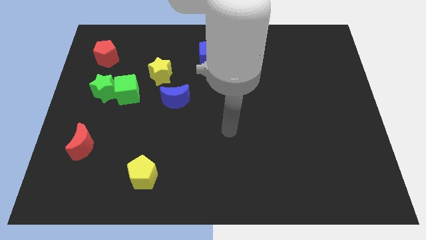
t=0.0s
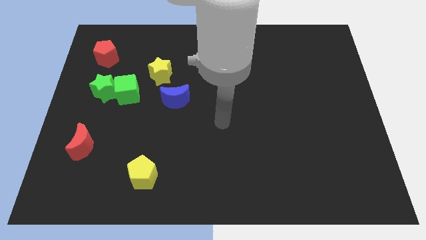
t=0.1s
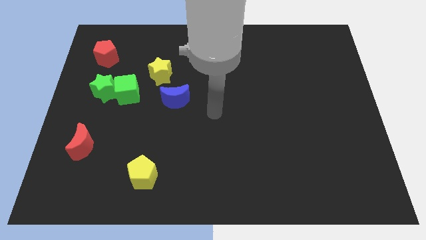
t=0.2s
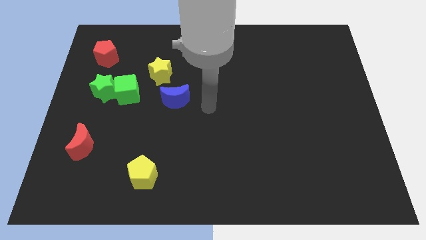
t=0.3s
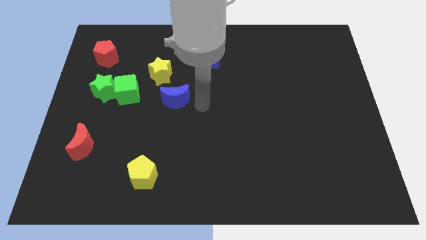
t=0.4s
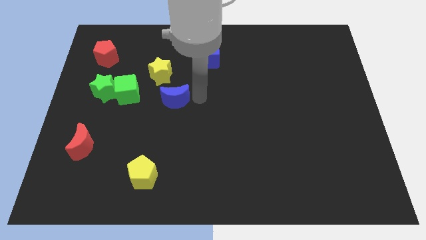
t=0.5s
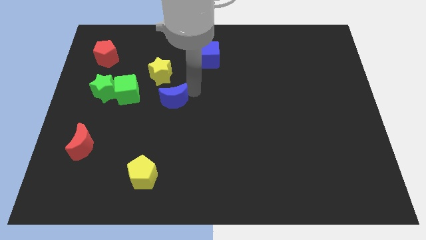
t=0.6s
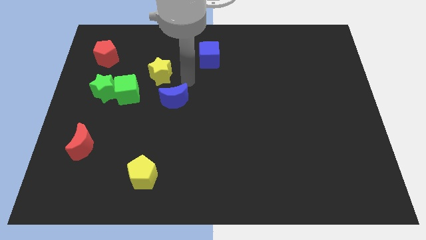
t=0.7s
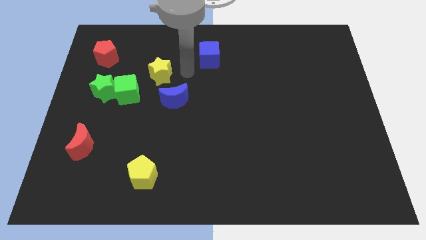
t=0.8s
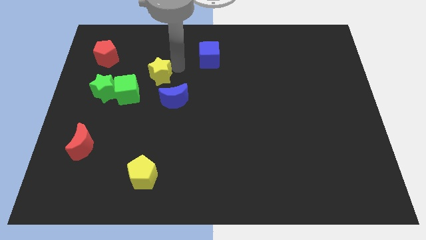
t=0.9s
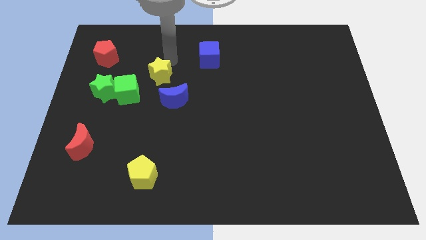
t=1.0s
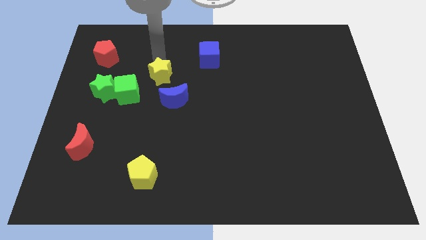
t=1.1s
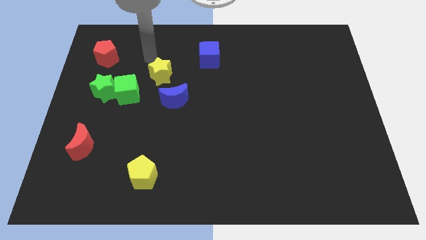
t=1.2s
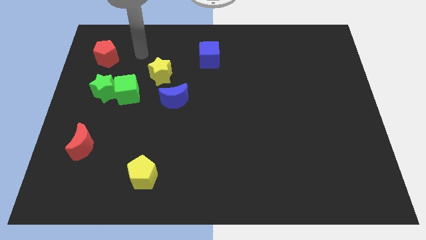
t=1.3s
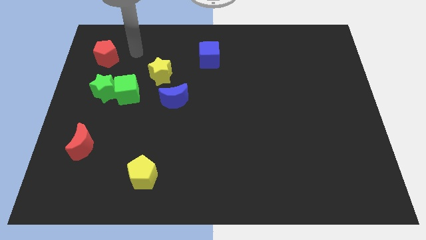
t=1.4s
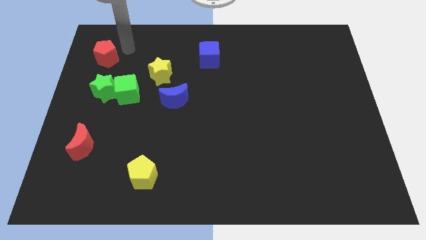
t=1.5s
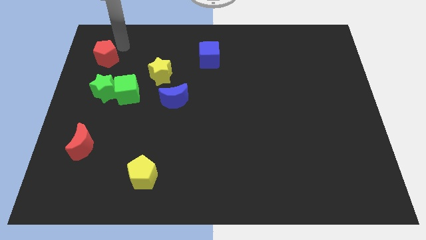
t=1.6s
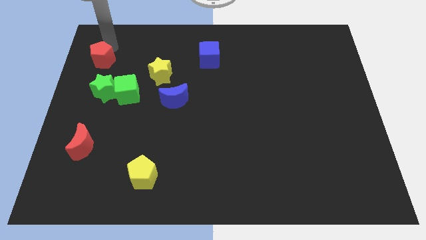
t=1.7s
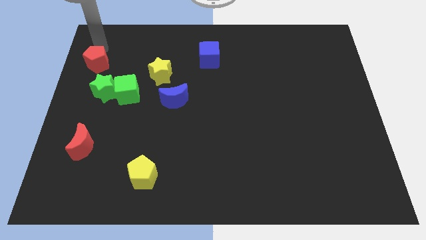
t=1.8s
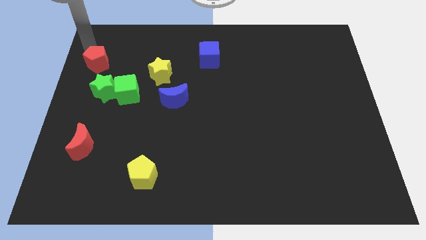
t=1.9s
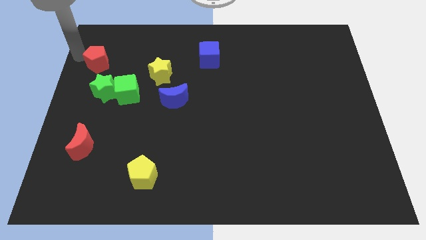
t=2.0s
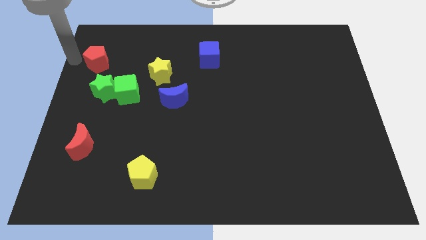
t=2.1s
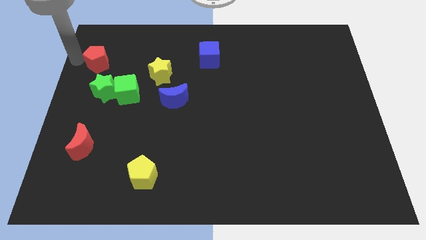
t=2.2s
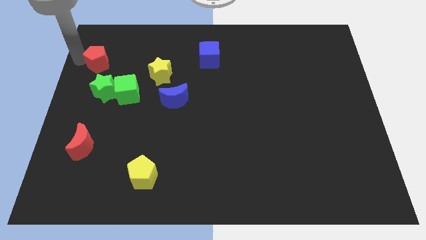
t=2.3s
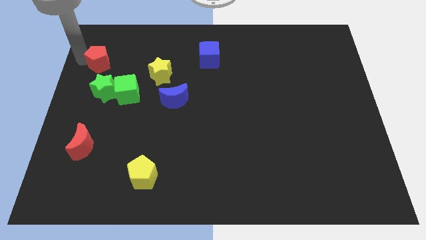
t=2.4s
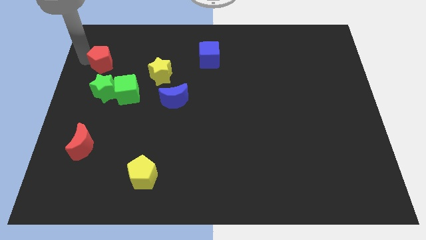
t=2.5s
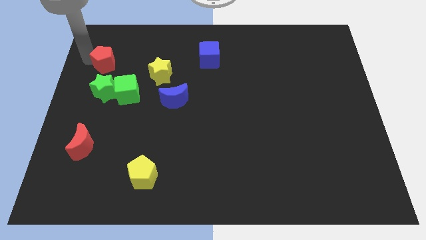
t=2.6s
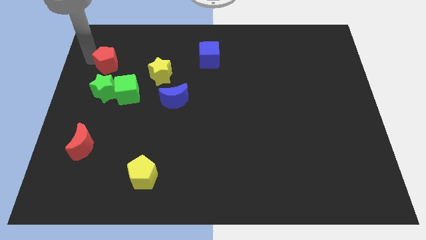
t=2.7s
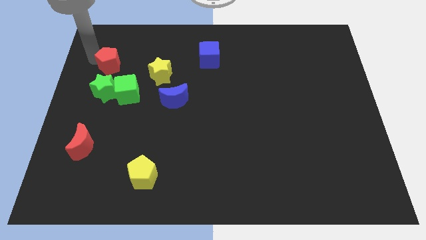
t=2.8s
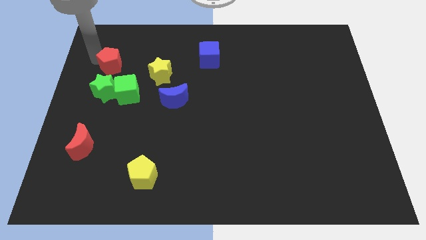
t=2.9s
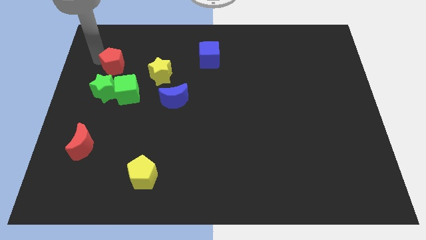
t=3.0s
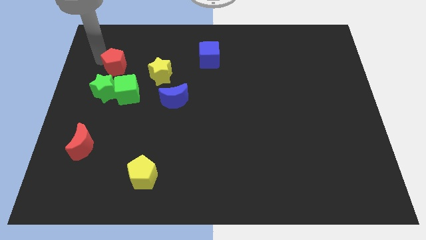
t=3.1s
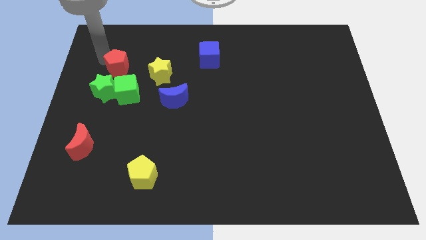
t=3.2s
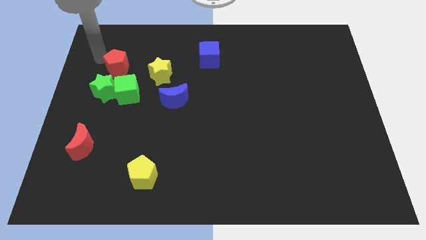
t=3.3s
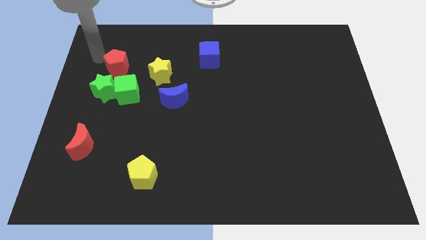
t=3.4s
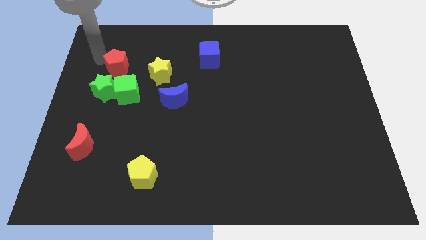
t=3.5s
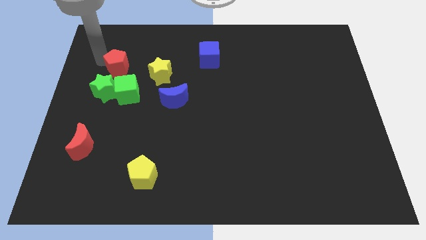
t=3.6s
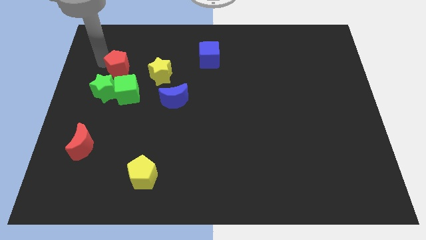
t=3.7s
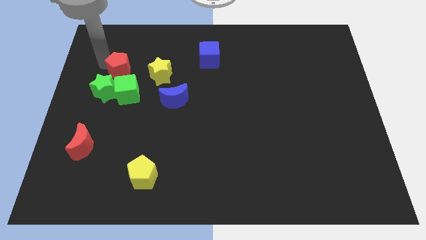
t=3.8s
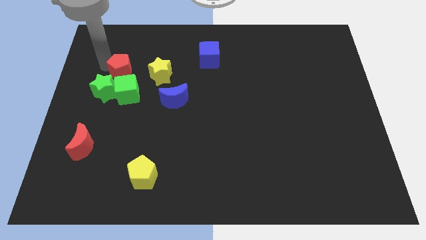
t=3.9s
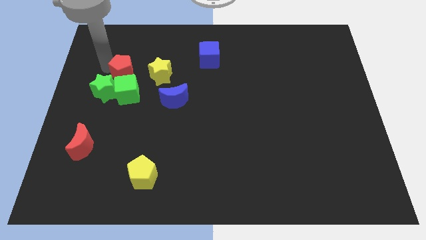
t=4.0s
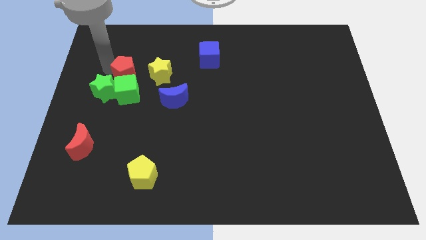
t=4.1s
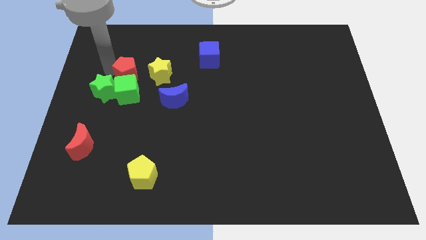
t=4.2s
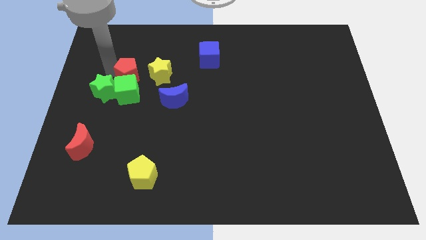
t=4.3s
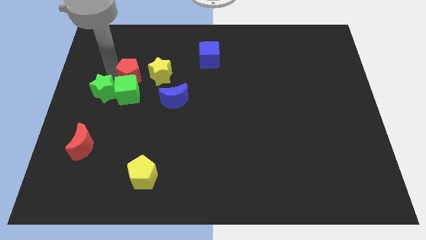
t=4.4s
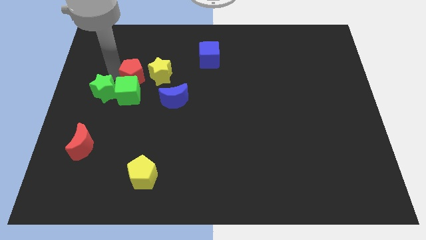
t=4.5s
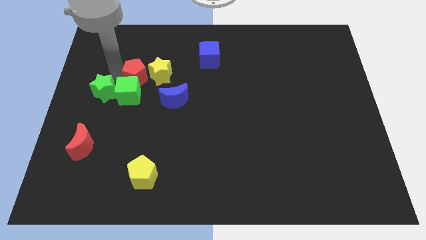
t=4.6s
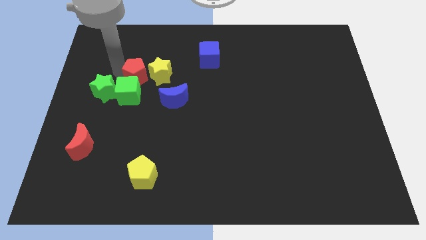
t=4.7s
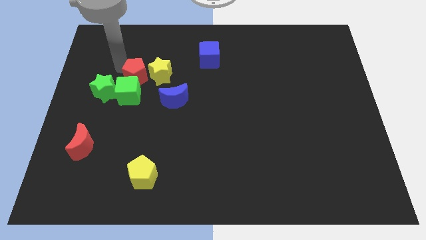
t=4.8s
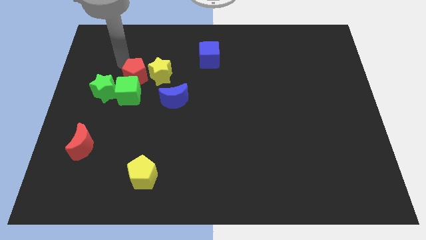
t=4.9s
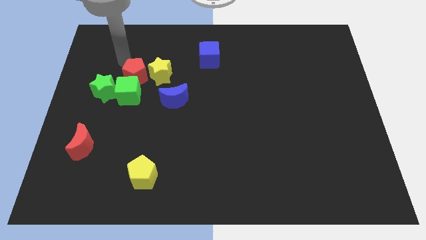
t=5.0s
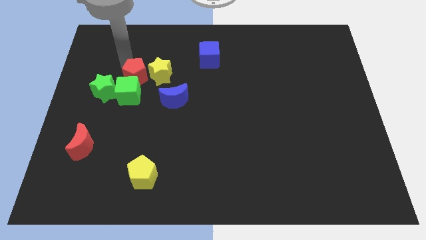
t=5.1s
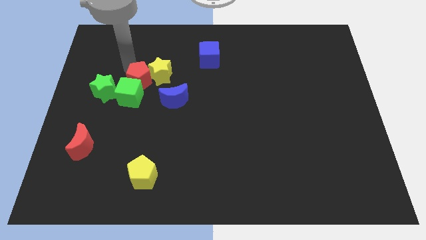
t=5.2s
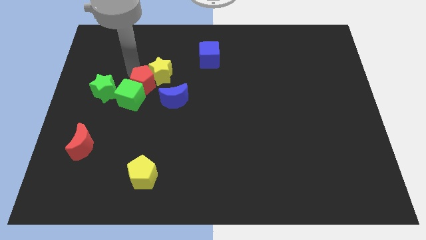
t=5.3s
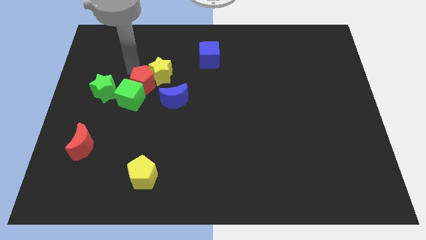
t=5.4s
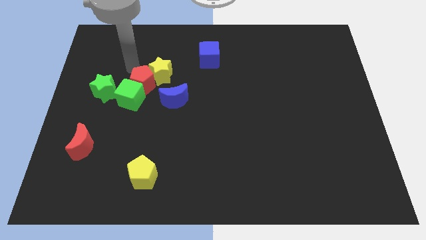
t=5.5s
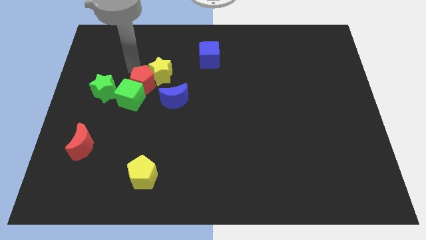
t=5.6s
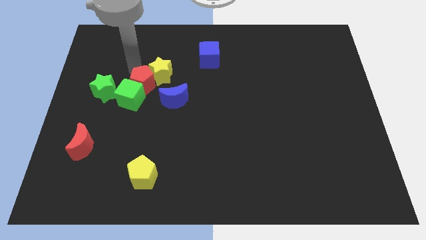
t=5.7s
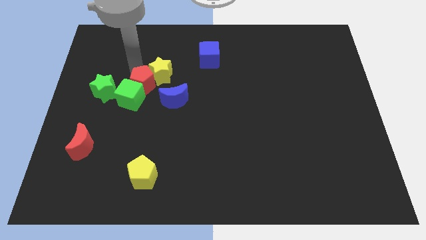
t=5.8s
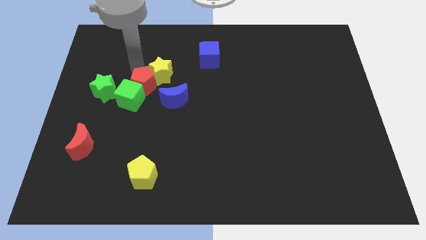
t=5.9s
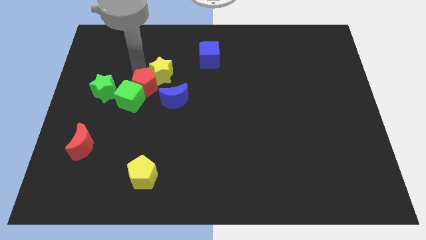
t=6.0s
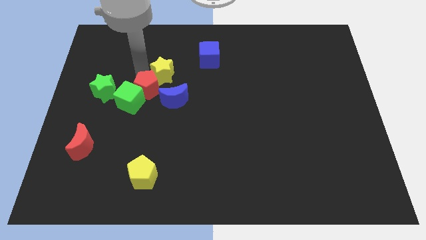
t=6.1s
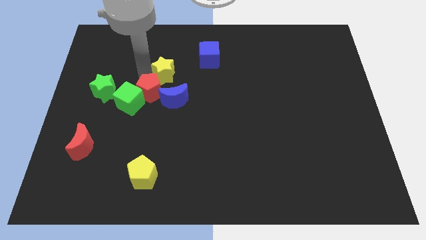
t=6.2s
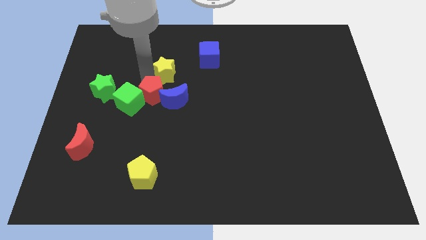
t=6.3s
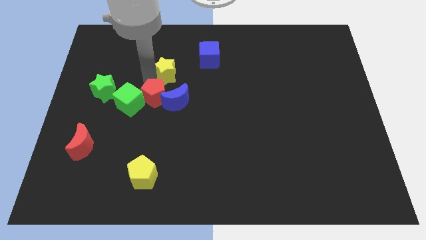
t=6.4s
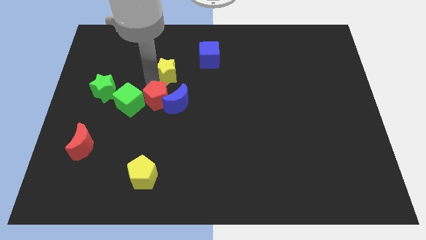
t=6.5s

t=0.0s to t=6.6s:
move the red pentagon down and then to the right

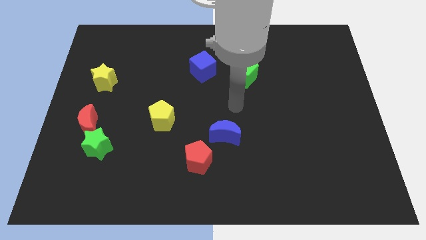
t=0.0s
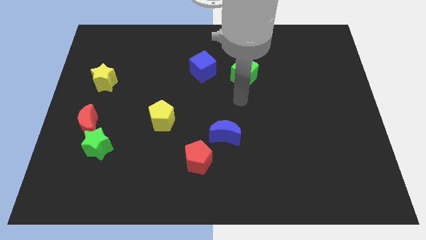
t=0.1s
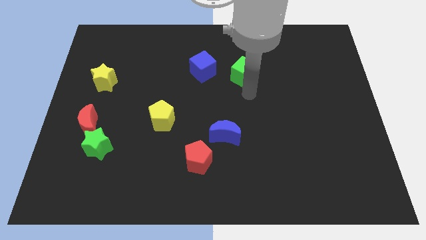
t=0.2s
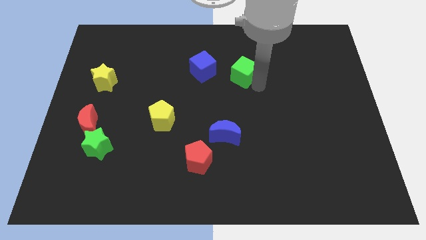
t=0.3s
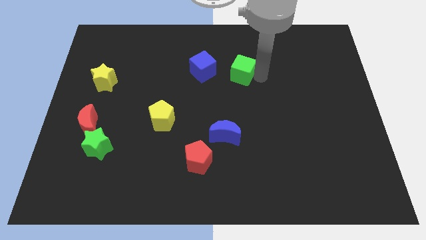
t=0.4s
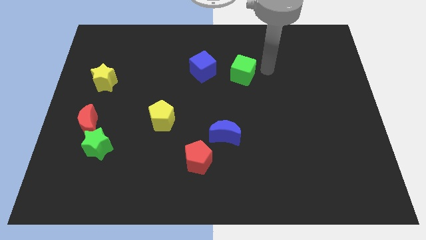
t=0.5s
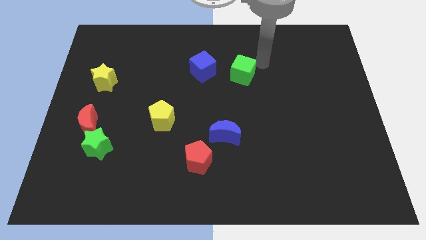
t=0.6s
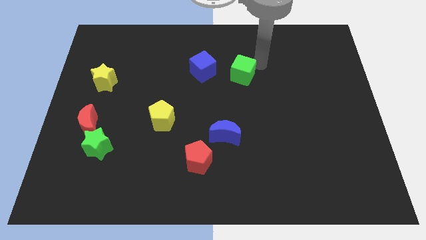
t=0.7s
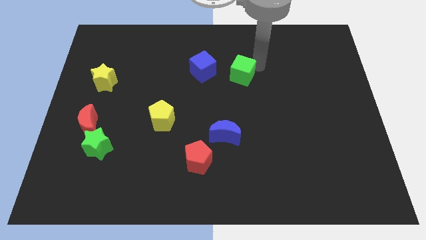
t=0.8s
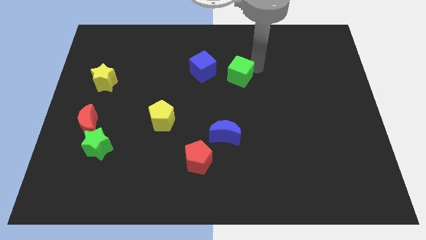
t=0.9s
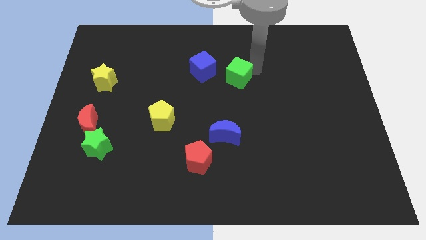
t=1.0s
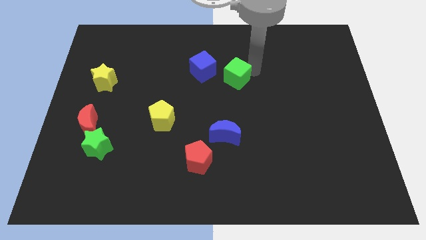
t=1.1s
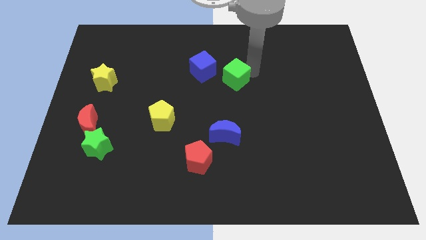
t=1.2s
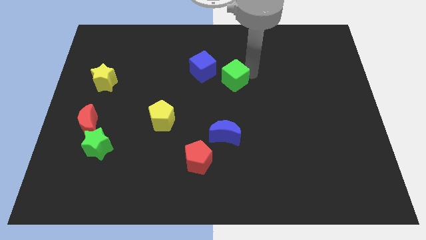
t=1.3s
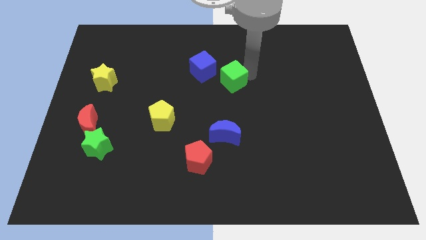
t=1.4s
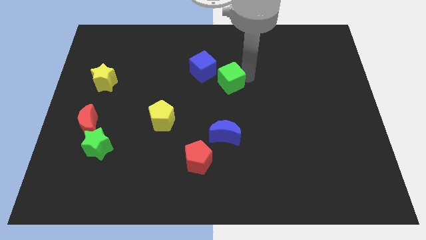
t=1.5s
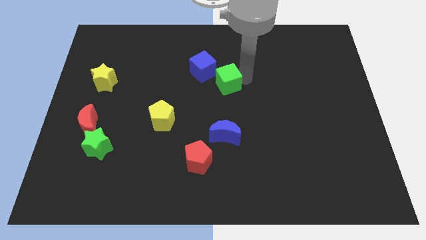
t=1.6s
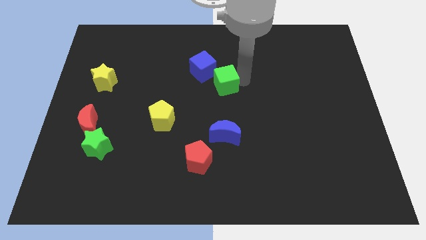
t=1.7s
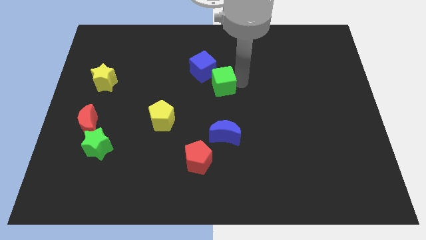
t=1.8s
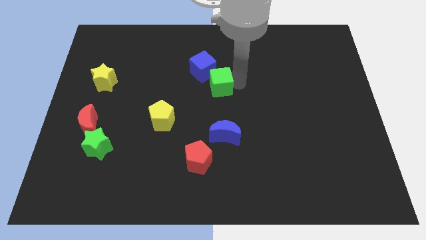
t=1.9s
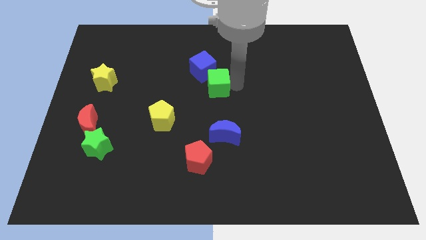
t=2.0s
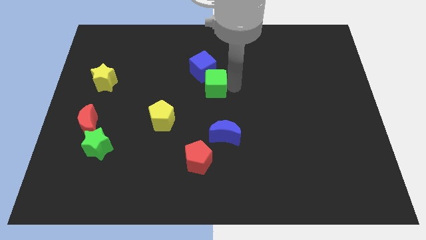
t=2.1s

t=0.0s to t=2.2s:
push the green cube slightly left
